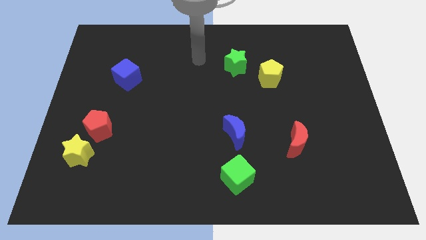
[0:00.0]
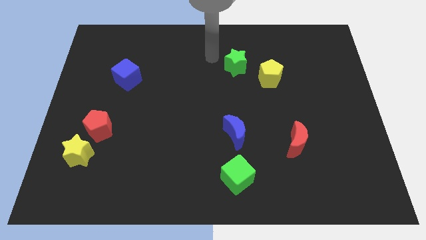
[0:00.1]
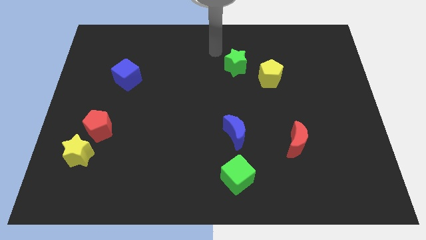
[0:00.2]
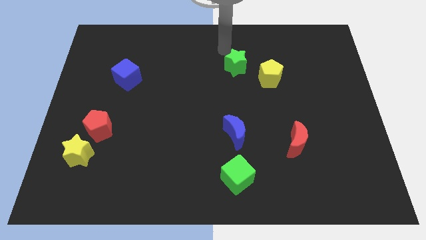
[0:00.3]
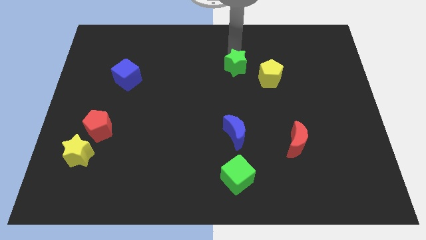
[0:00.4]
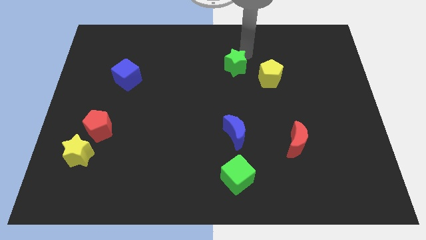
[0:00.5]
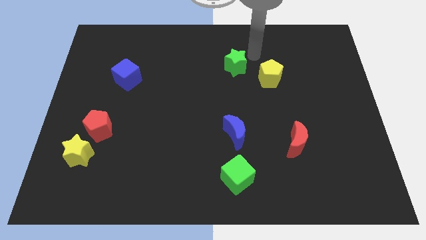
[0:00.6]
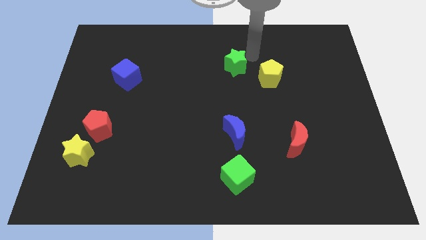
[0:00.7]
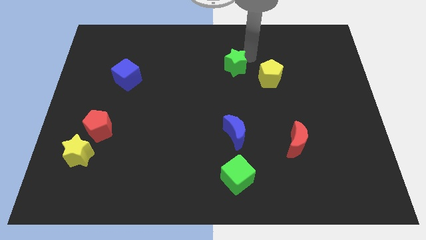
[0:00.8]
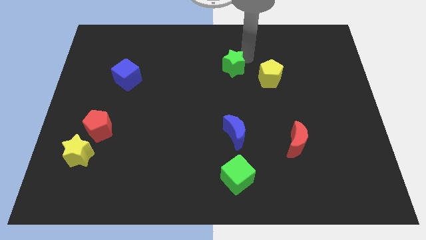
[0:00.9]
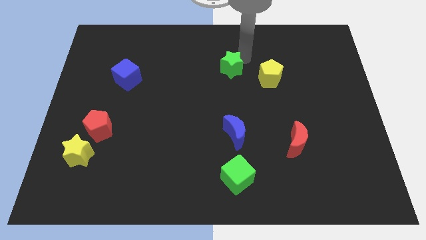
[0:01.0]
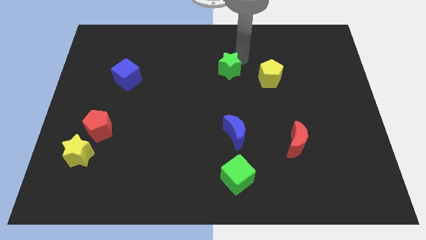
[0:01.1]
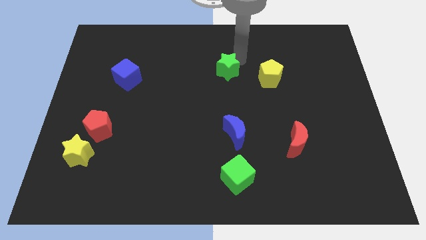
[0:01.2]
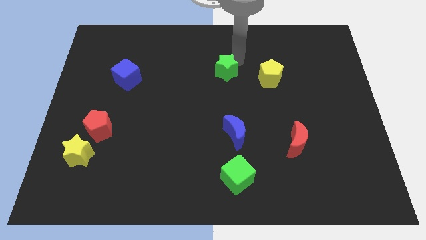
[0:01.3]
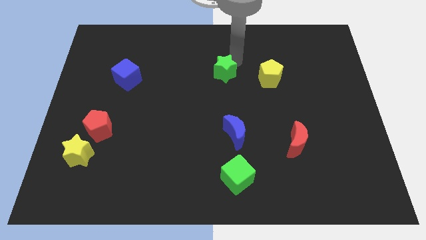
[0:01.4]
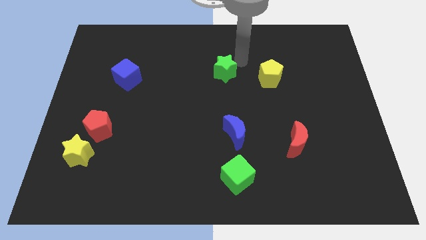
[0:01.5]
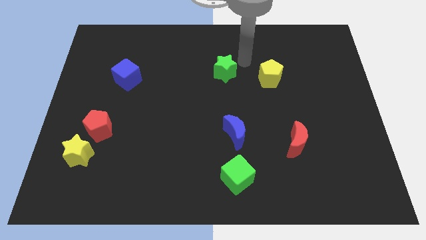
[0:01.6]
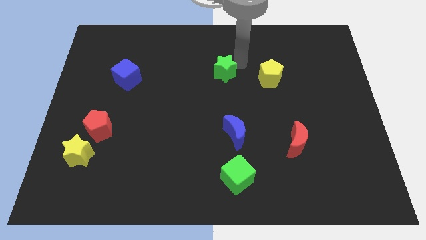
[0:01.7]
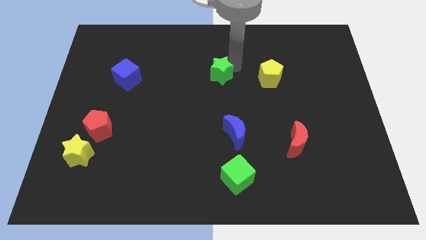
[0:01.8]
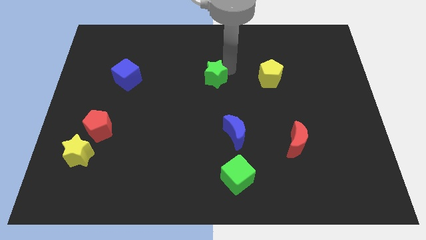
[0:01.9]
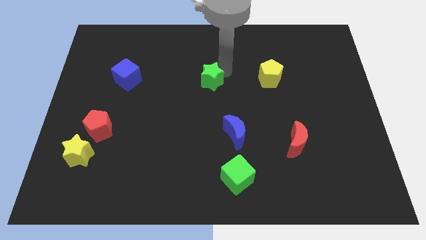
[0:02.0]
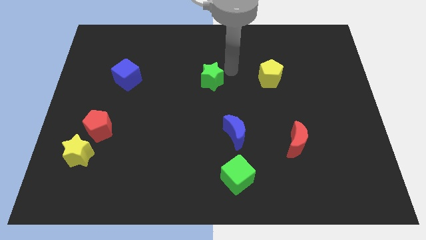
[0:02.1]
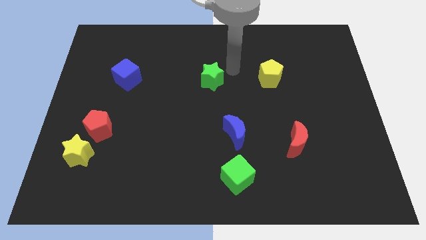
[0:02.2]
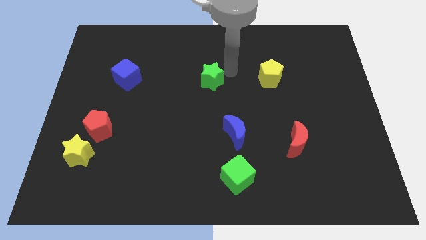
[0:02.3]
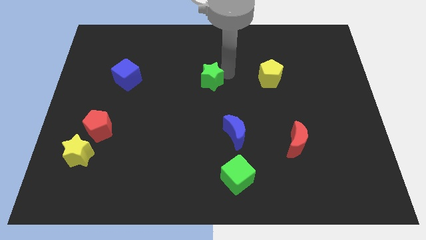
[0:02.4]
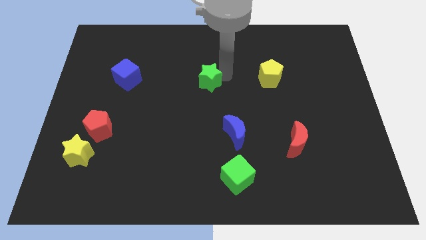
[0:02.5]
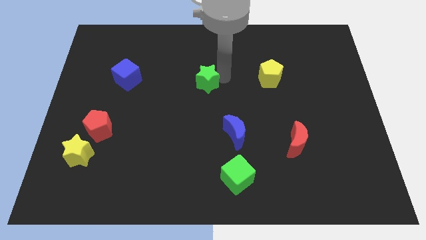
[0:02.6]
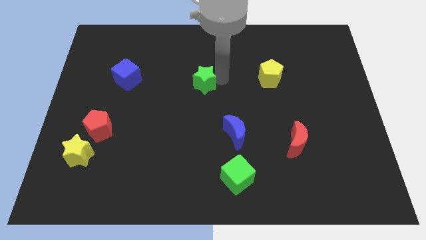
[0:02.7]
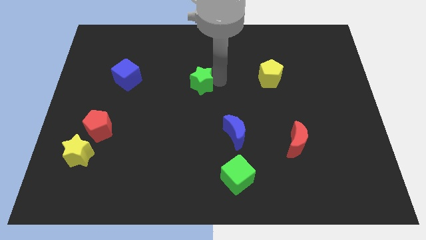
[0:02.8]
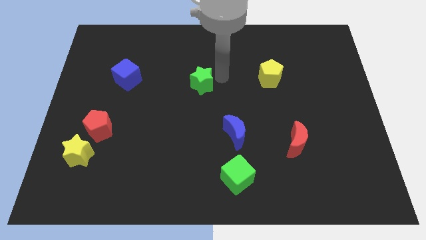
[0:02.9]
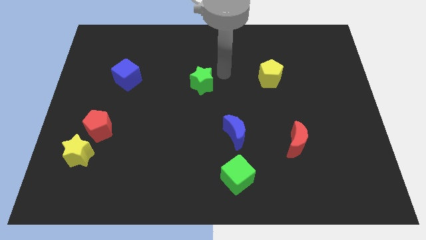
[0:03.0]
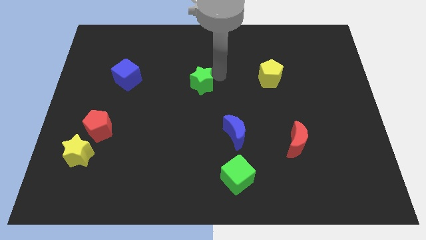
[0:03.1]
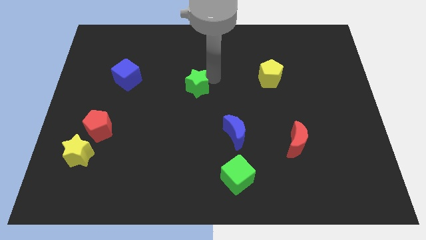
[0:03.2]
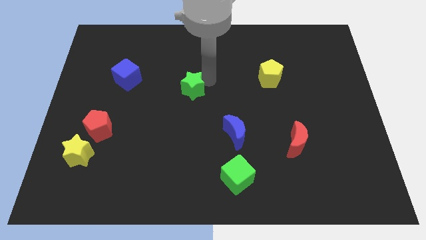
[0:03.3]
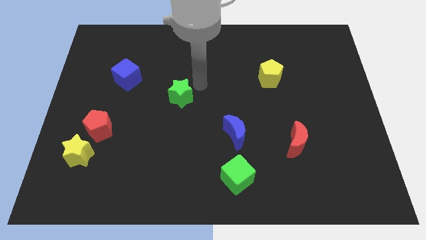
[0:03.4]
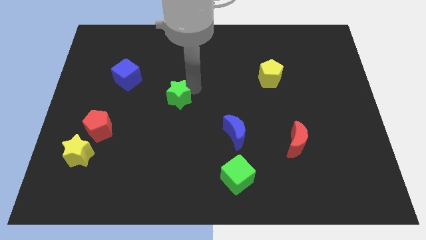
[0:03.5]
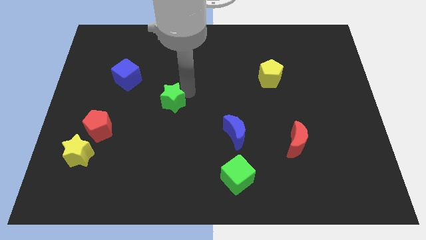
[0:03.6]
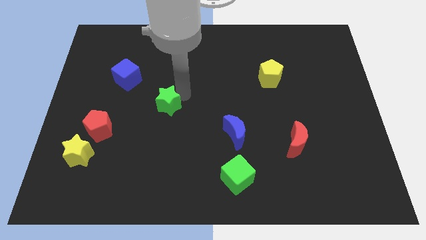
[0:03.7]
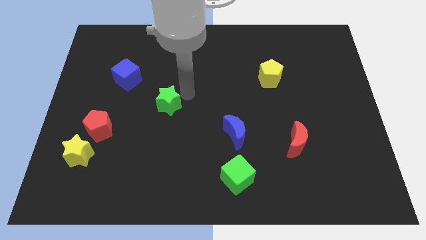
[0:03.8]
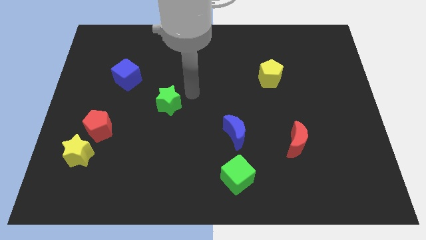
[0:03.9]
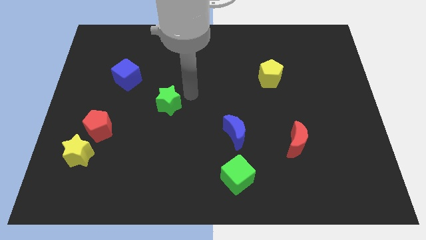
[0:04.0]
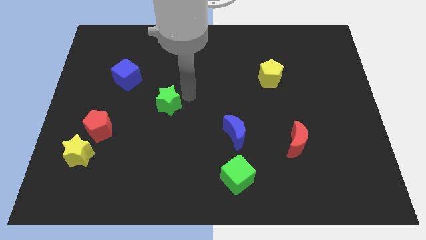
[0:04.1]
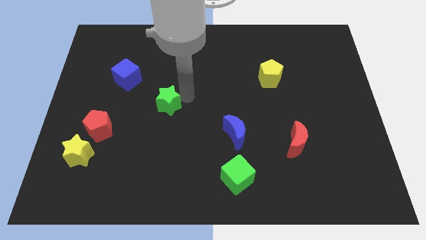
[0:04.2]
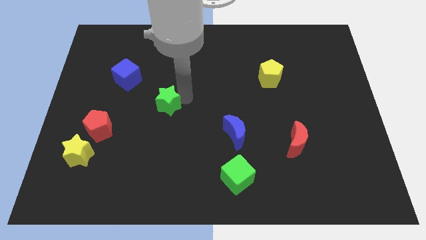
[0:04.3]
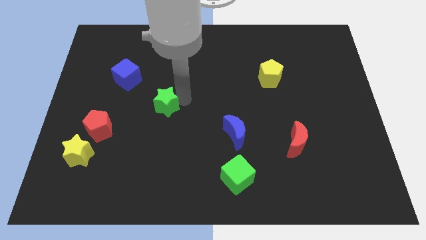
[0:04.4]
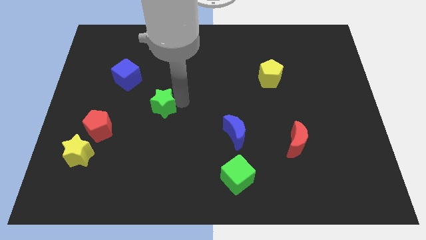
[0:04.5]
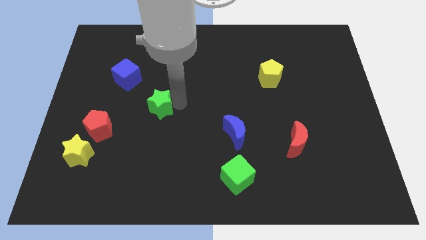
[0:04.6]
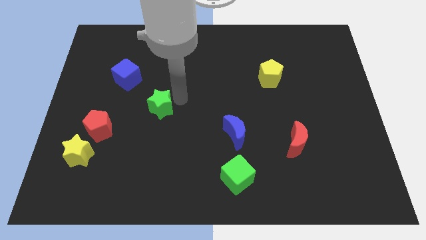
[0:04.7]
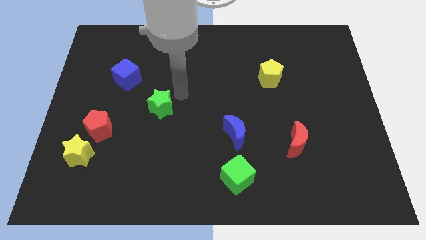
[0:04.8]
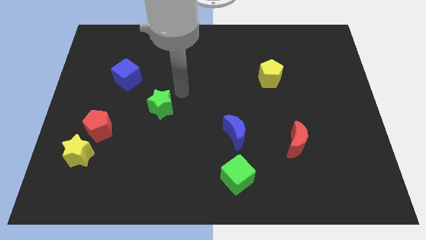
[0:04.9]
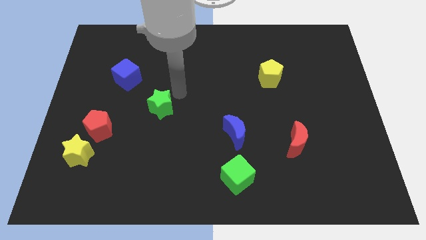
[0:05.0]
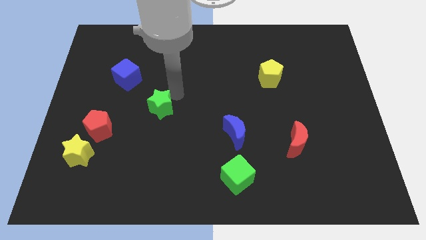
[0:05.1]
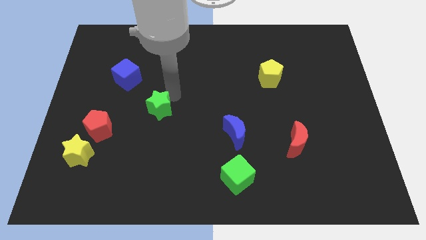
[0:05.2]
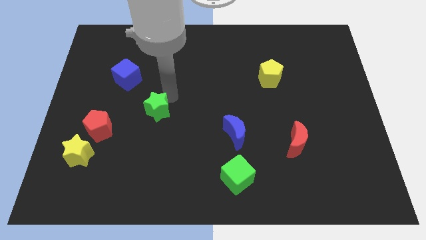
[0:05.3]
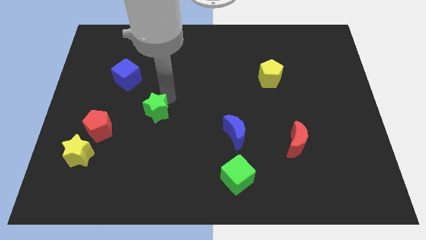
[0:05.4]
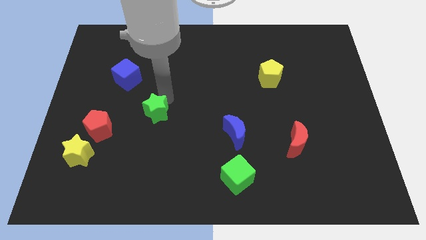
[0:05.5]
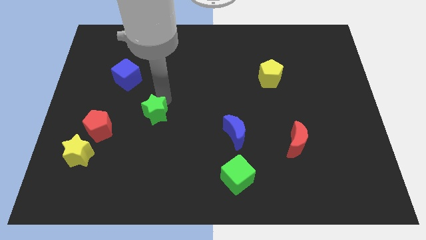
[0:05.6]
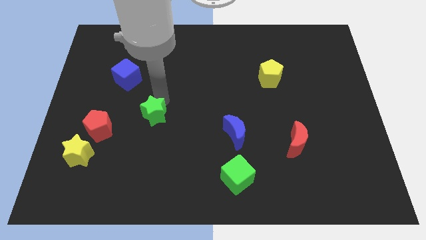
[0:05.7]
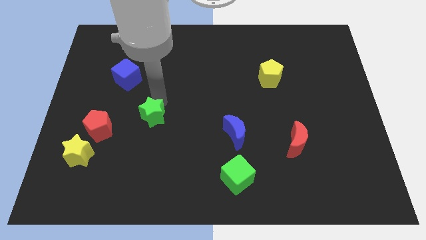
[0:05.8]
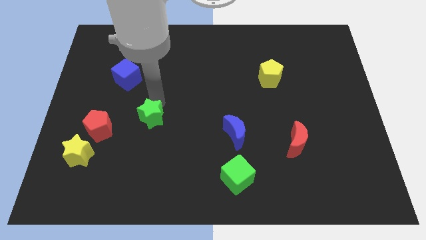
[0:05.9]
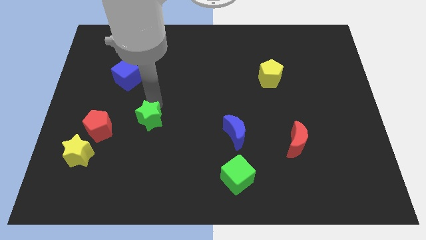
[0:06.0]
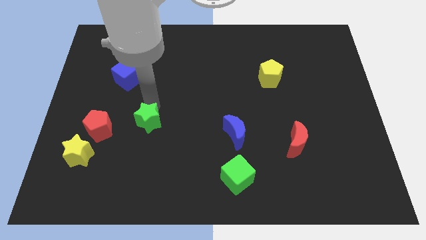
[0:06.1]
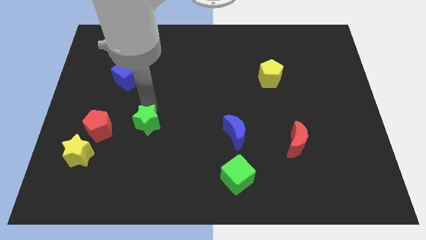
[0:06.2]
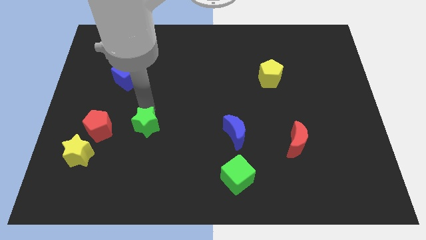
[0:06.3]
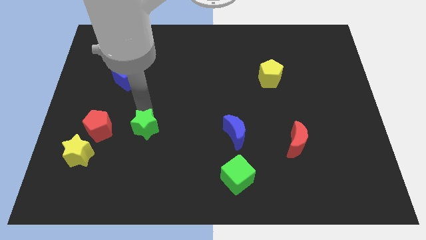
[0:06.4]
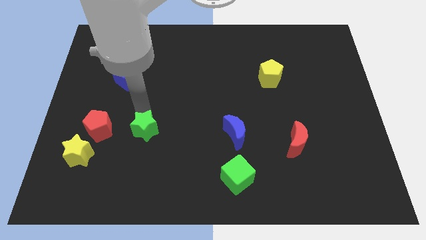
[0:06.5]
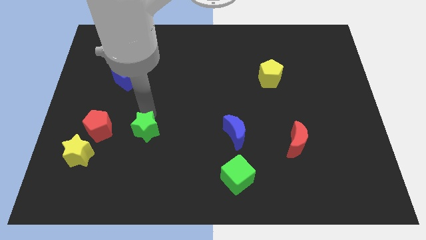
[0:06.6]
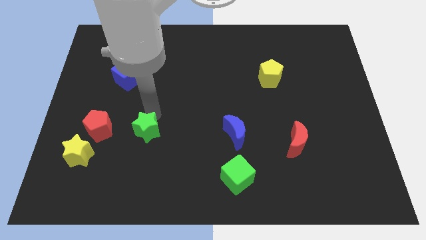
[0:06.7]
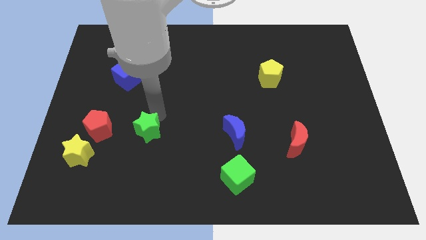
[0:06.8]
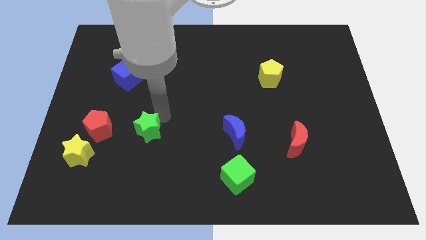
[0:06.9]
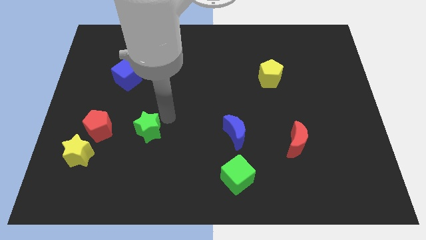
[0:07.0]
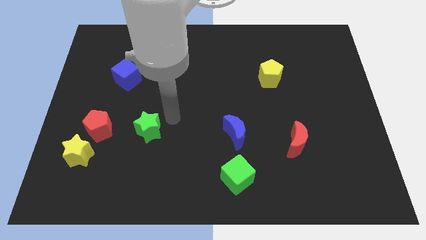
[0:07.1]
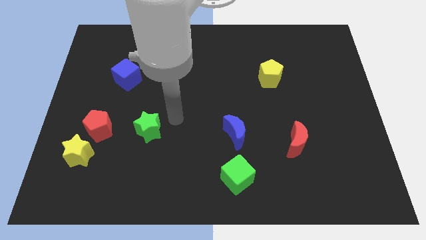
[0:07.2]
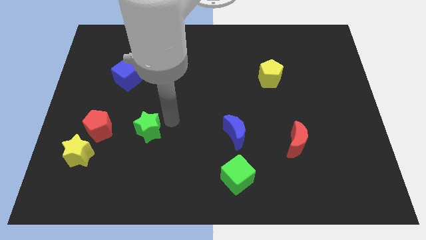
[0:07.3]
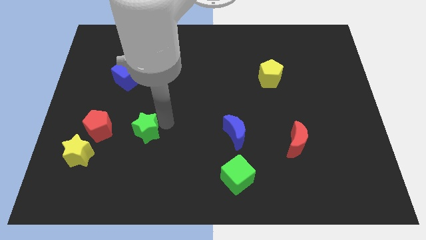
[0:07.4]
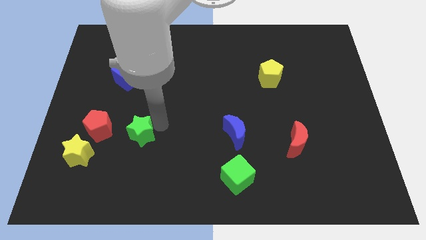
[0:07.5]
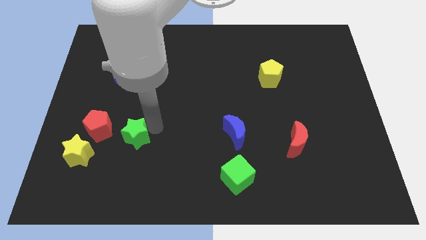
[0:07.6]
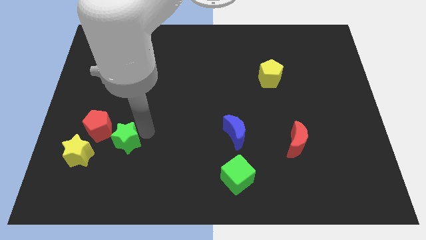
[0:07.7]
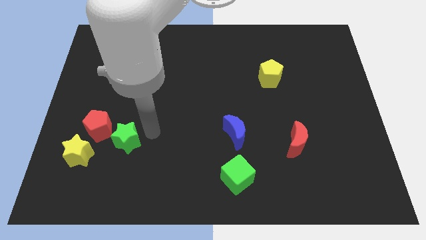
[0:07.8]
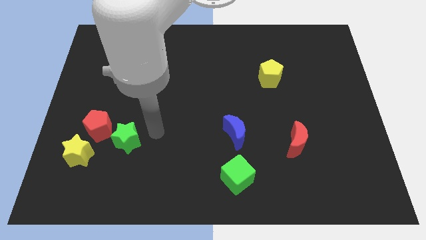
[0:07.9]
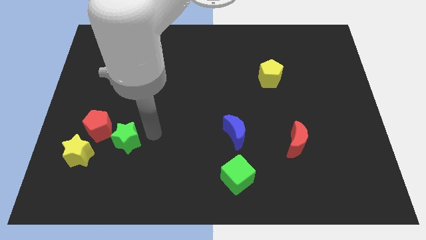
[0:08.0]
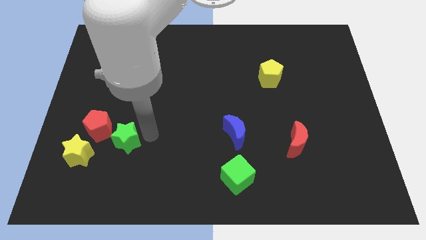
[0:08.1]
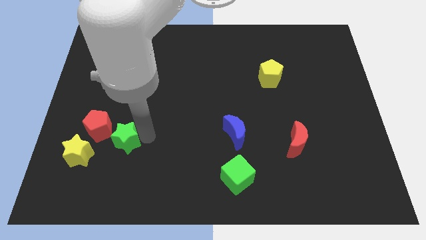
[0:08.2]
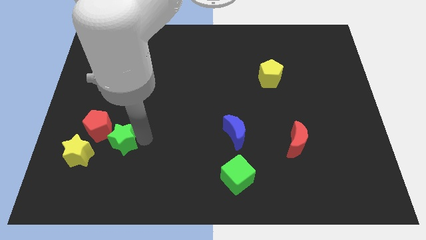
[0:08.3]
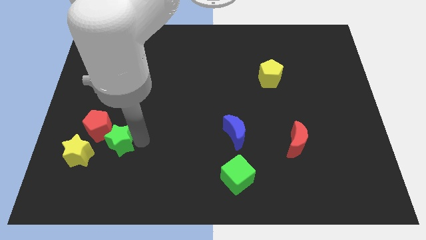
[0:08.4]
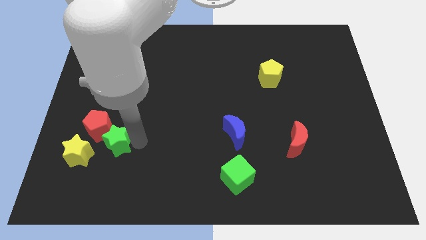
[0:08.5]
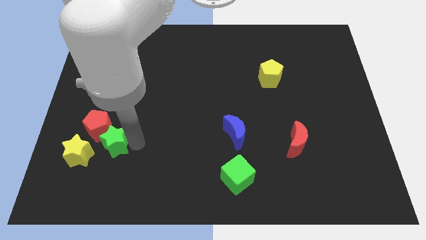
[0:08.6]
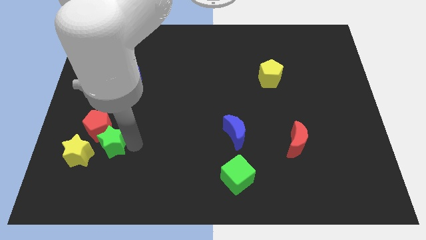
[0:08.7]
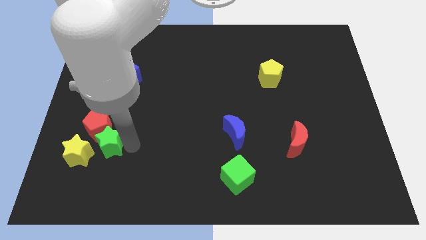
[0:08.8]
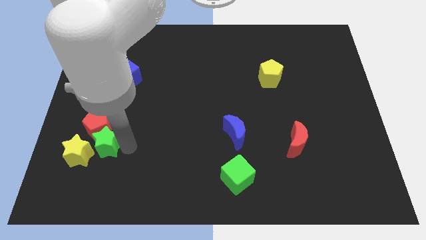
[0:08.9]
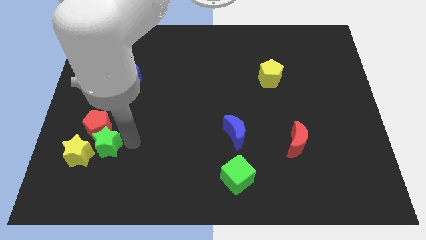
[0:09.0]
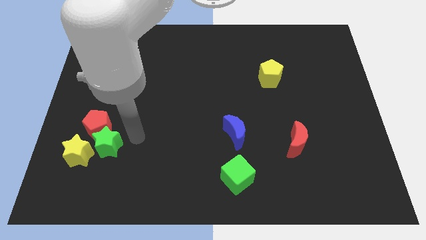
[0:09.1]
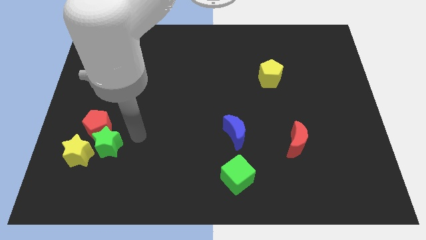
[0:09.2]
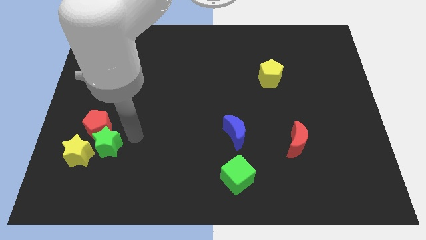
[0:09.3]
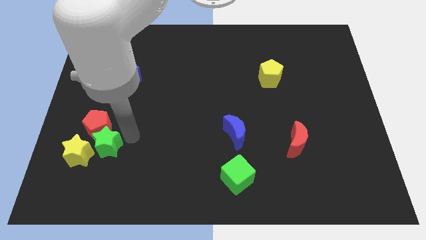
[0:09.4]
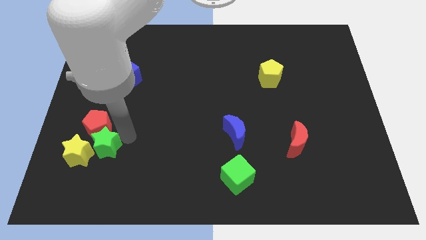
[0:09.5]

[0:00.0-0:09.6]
push the green star towards the yellow star
